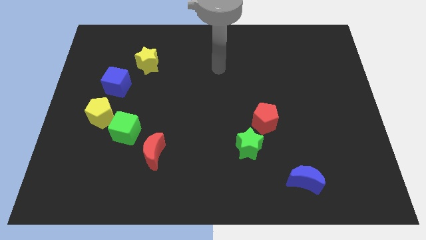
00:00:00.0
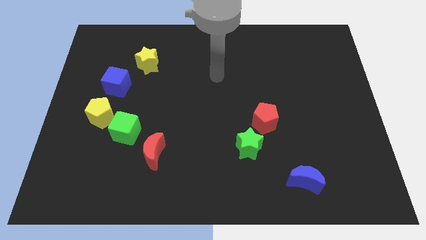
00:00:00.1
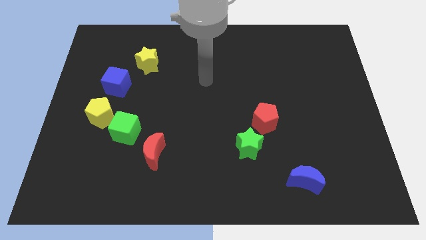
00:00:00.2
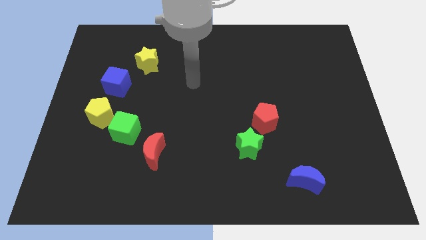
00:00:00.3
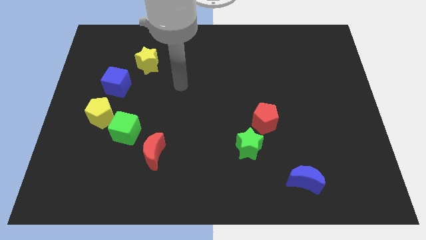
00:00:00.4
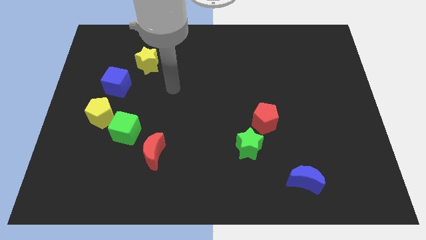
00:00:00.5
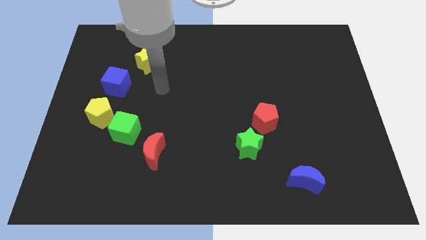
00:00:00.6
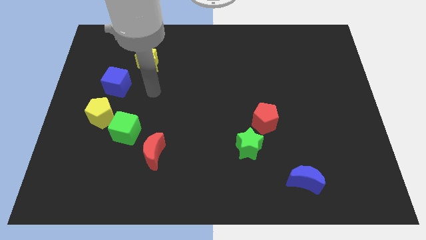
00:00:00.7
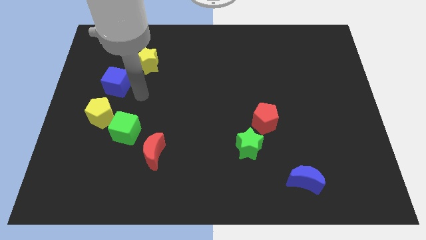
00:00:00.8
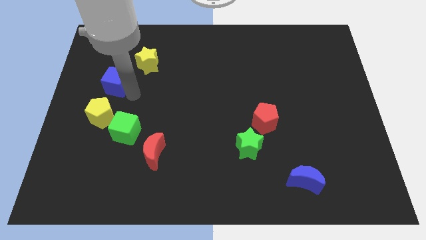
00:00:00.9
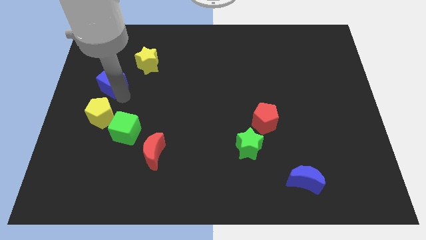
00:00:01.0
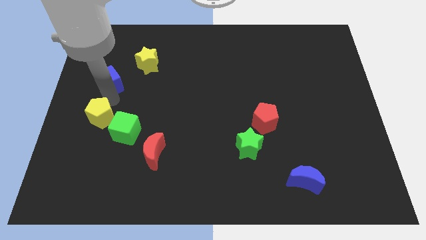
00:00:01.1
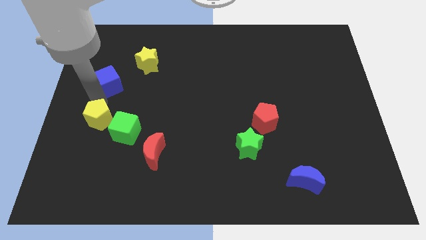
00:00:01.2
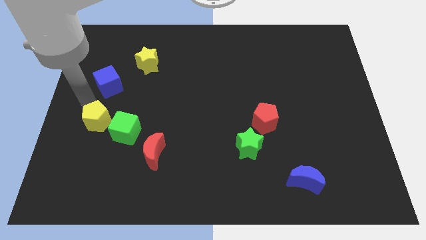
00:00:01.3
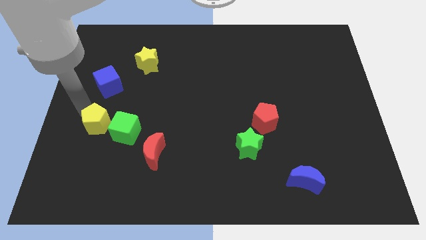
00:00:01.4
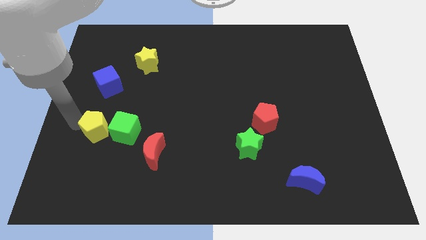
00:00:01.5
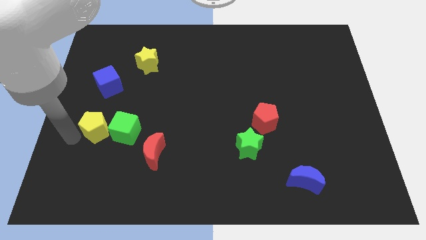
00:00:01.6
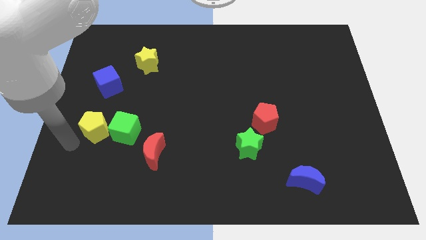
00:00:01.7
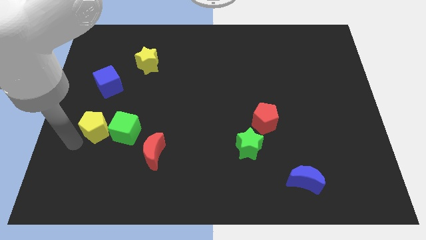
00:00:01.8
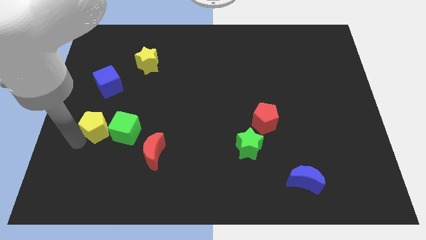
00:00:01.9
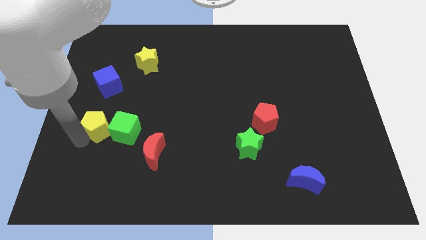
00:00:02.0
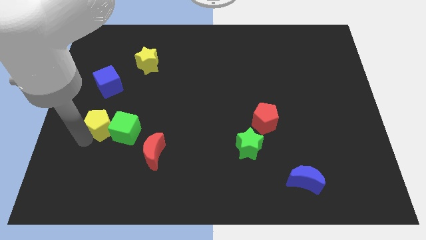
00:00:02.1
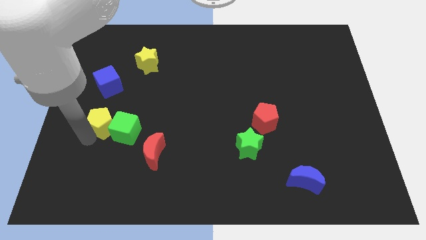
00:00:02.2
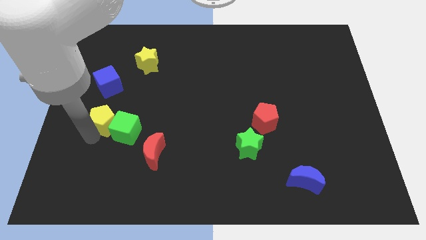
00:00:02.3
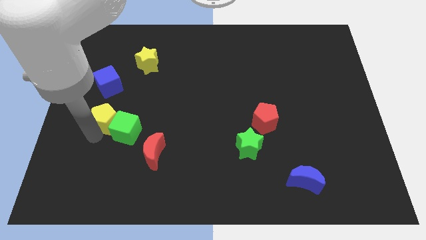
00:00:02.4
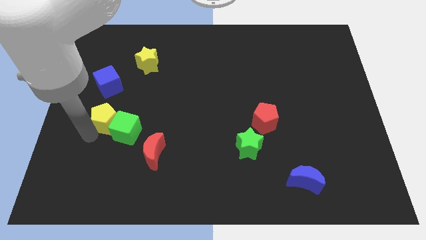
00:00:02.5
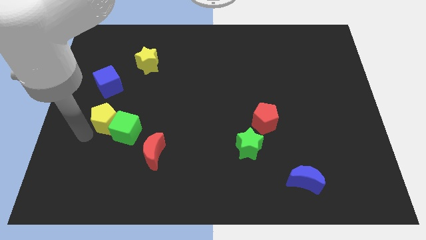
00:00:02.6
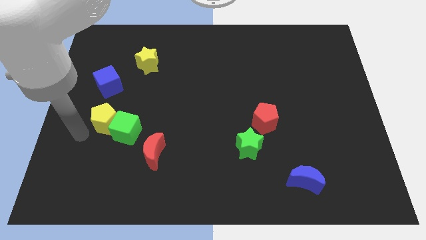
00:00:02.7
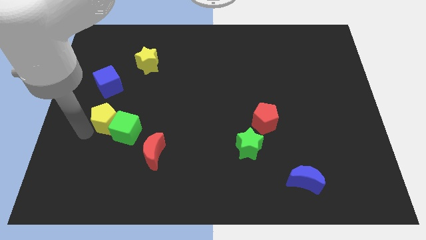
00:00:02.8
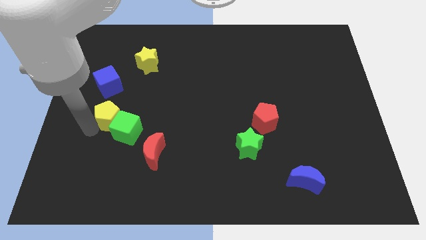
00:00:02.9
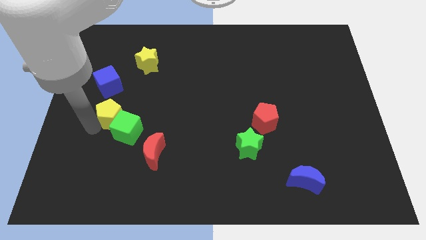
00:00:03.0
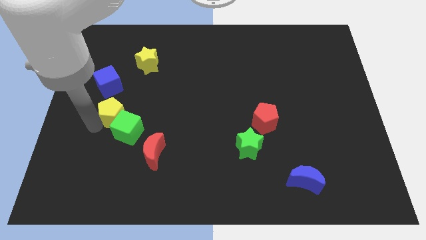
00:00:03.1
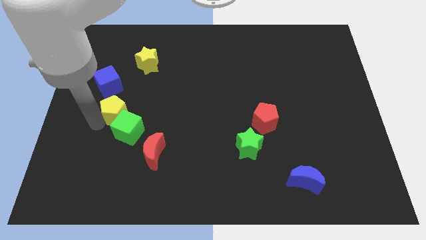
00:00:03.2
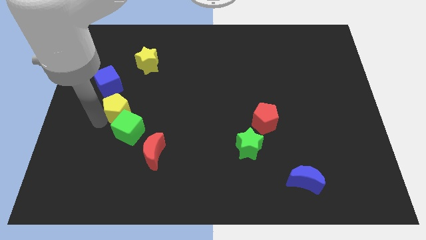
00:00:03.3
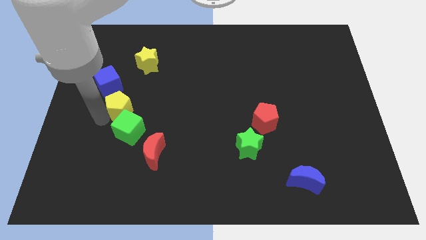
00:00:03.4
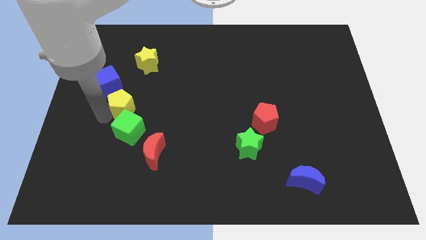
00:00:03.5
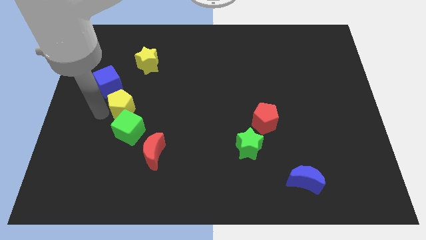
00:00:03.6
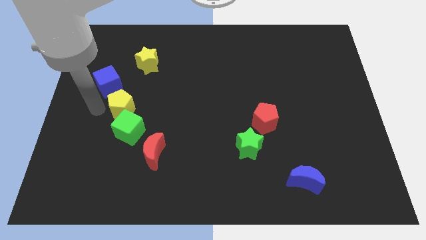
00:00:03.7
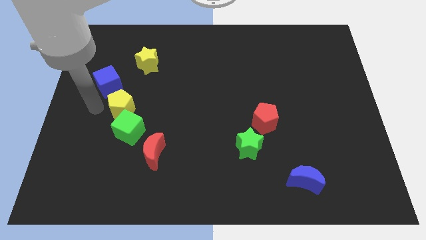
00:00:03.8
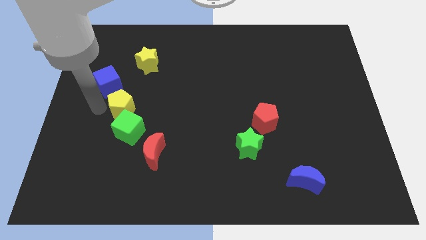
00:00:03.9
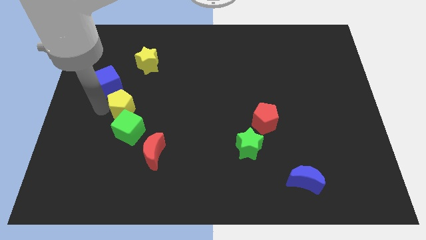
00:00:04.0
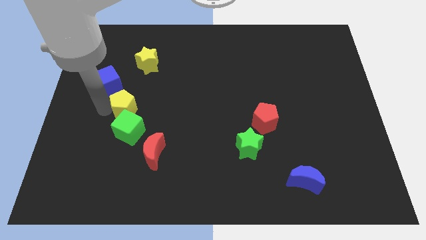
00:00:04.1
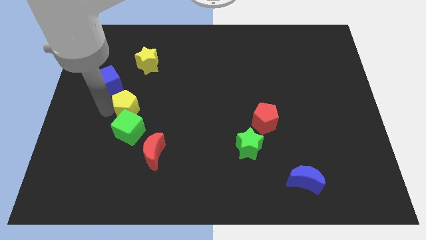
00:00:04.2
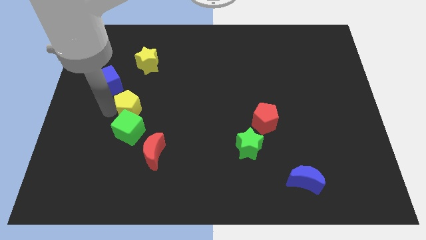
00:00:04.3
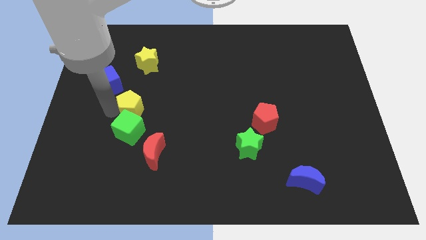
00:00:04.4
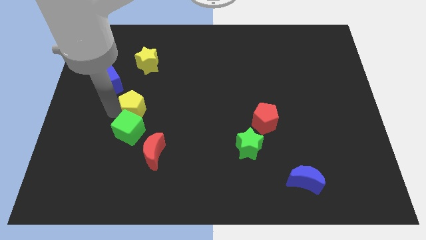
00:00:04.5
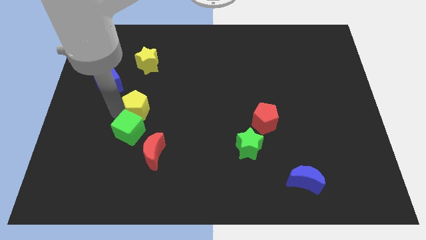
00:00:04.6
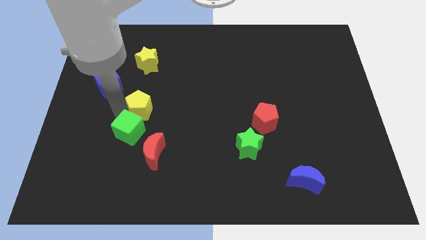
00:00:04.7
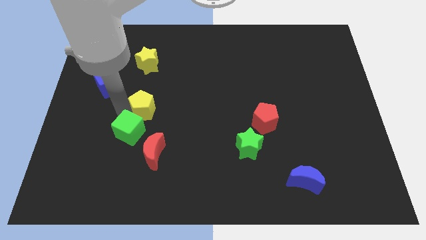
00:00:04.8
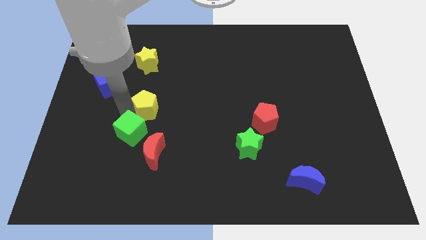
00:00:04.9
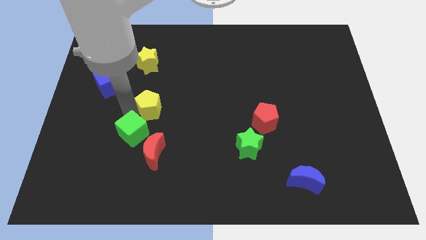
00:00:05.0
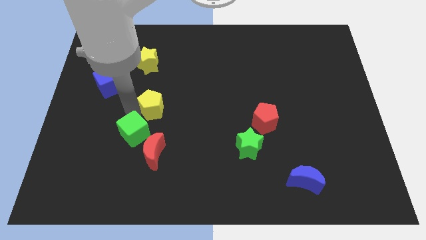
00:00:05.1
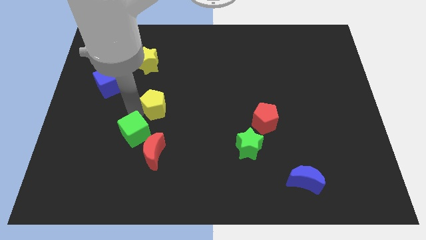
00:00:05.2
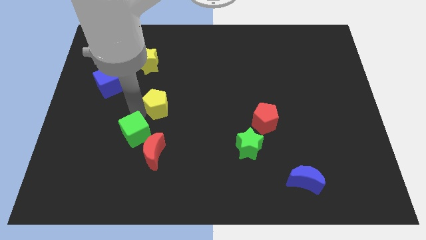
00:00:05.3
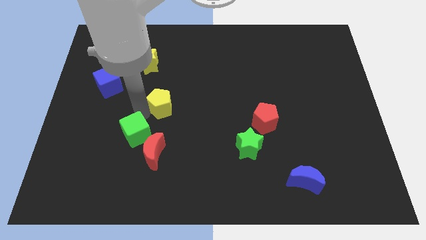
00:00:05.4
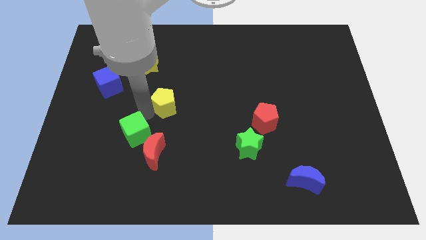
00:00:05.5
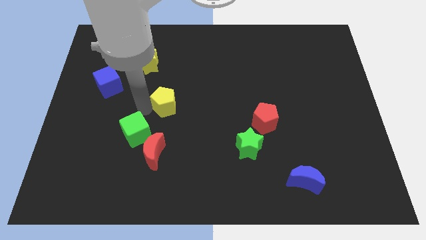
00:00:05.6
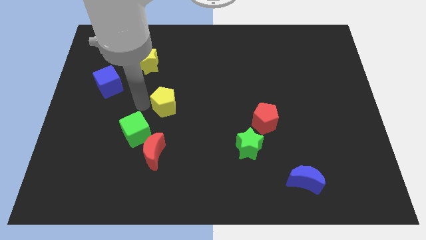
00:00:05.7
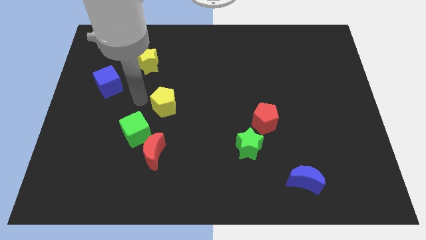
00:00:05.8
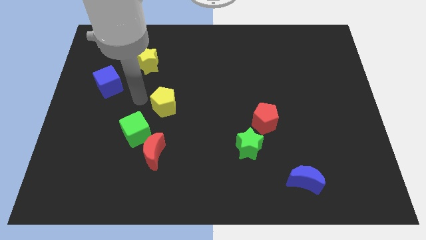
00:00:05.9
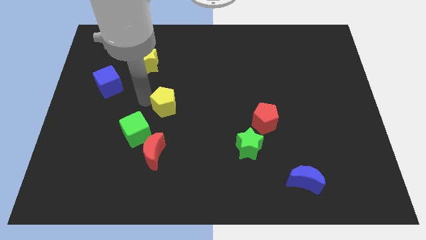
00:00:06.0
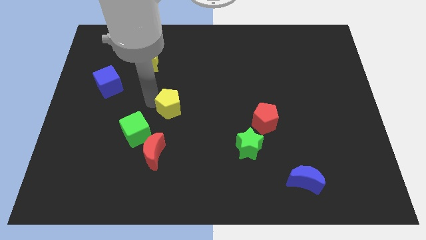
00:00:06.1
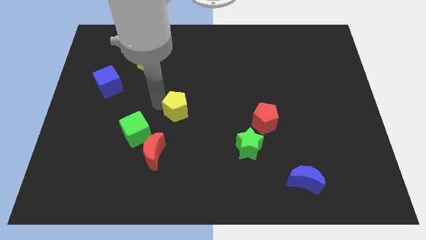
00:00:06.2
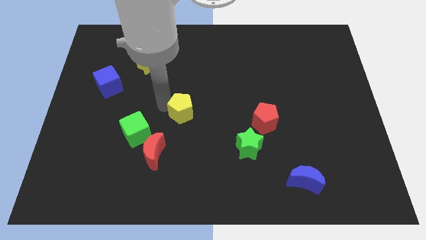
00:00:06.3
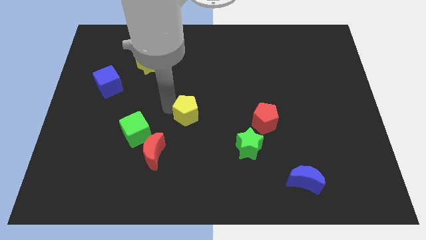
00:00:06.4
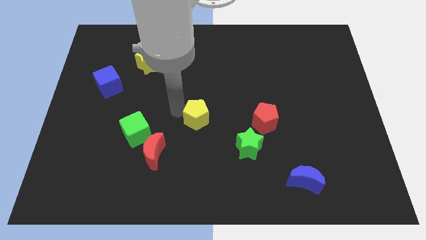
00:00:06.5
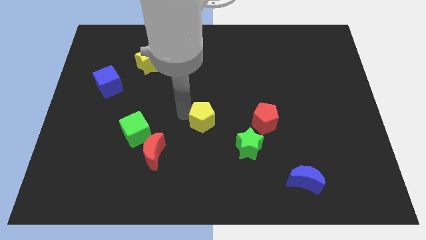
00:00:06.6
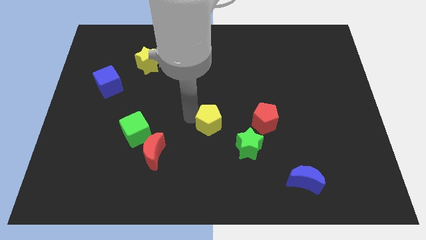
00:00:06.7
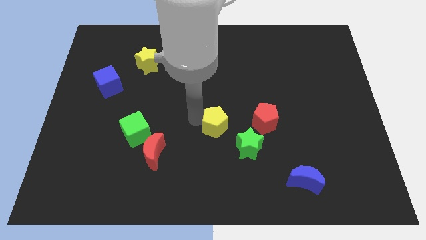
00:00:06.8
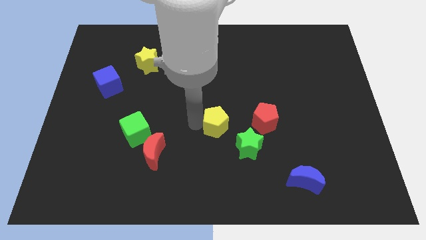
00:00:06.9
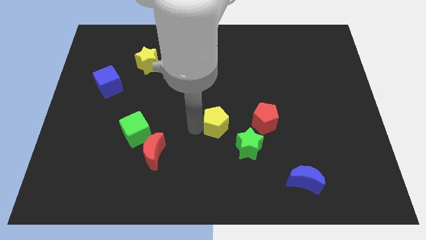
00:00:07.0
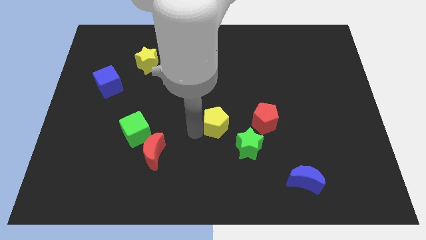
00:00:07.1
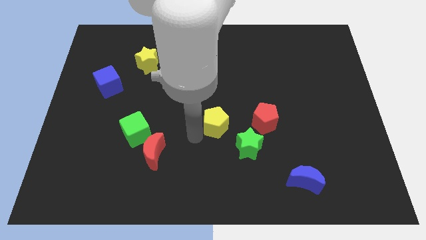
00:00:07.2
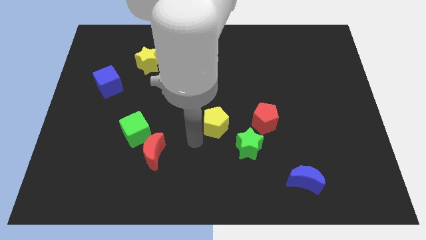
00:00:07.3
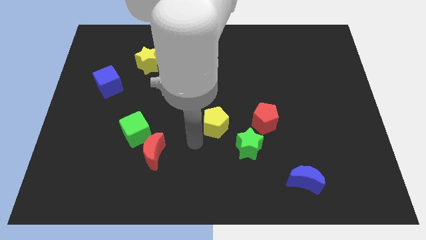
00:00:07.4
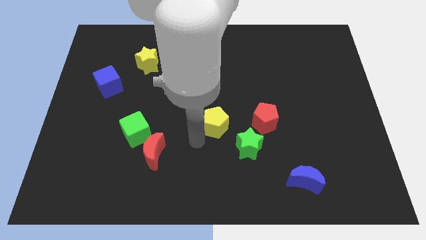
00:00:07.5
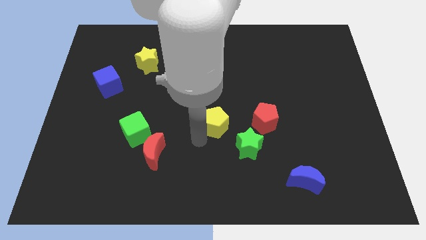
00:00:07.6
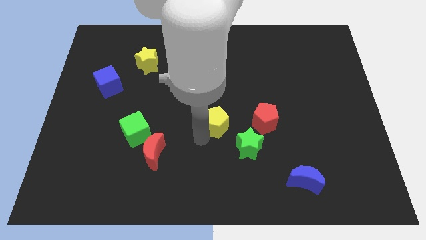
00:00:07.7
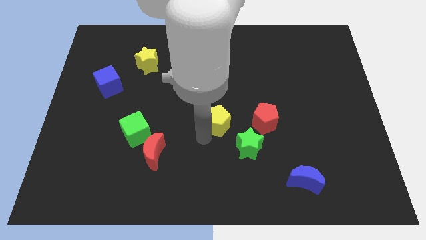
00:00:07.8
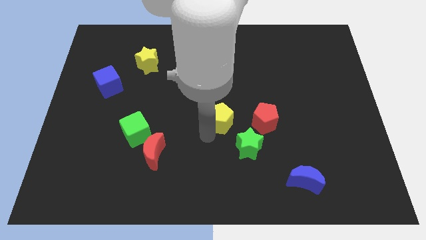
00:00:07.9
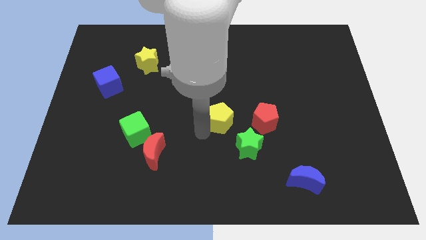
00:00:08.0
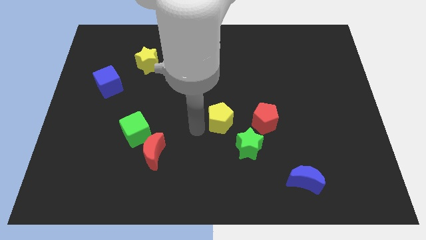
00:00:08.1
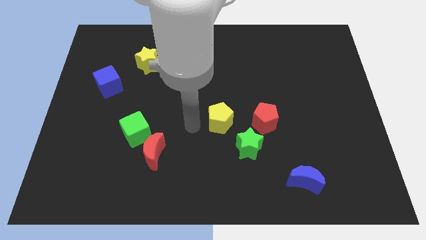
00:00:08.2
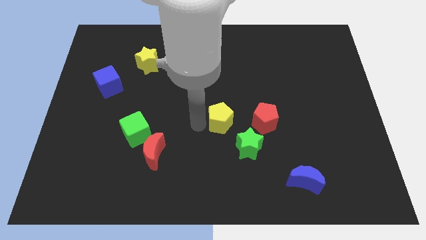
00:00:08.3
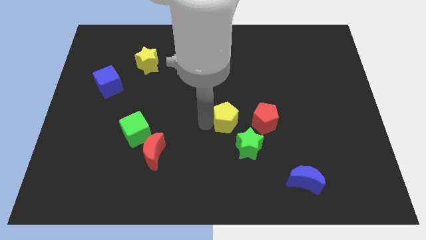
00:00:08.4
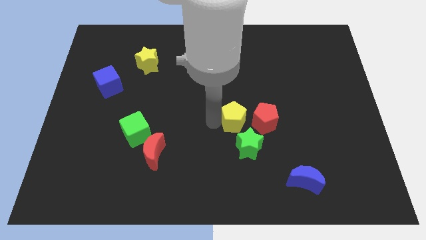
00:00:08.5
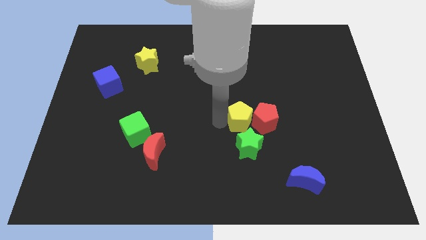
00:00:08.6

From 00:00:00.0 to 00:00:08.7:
put the yellow pentagon towards the red pentagon
